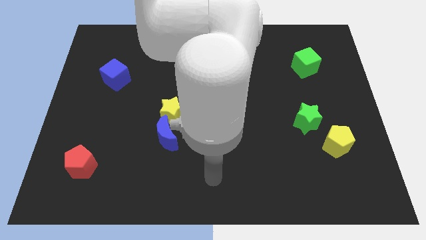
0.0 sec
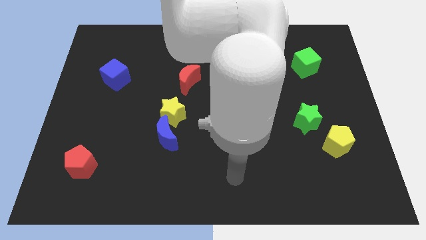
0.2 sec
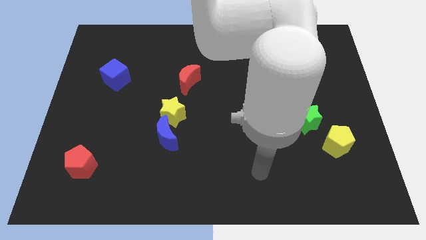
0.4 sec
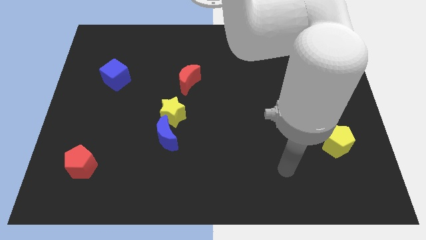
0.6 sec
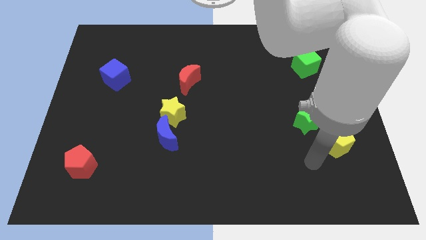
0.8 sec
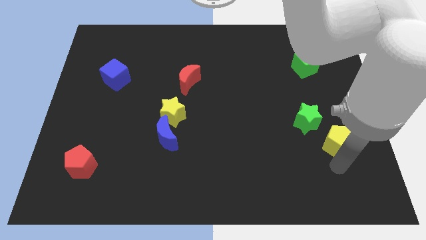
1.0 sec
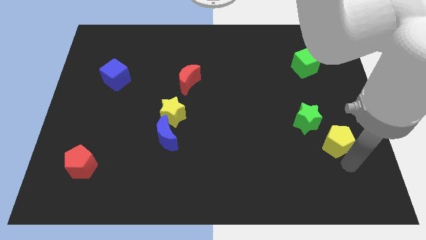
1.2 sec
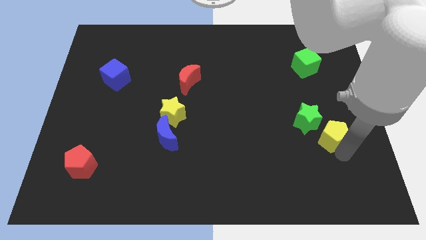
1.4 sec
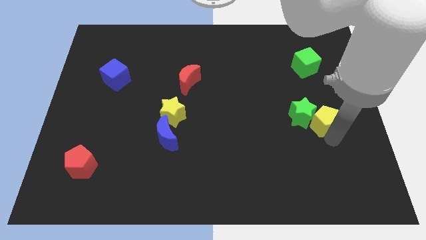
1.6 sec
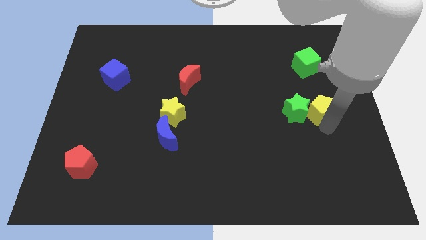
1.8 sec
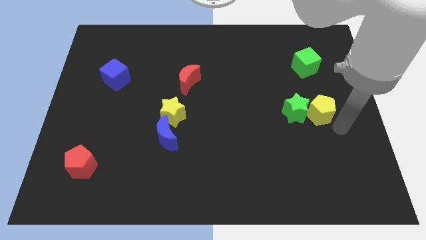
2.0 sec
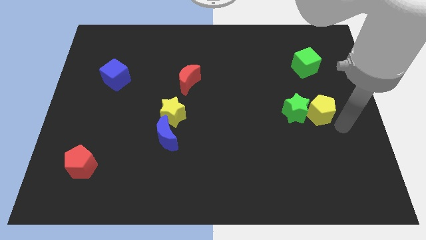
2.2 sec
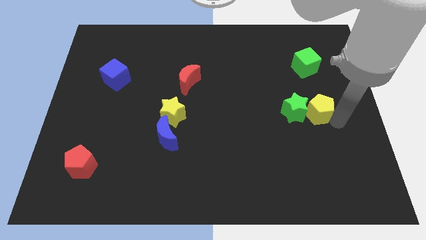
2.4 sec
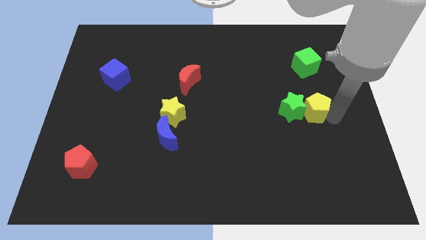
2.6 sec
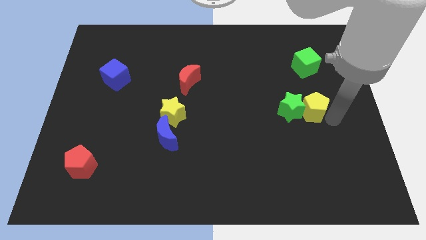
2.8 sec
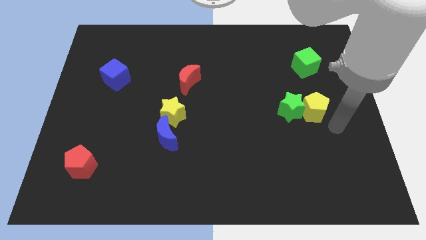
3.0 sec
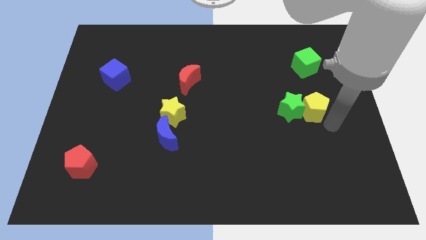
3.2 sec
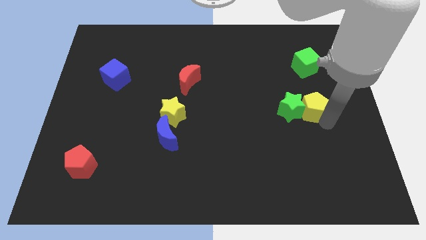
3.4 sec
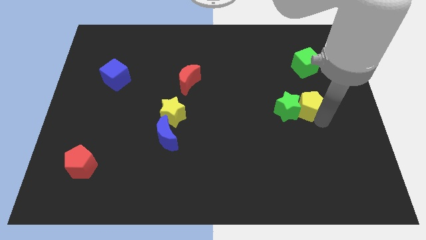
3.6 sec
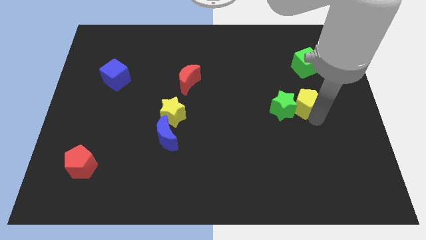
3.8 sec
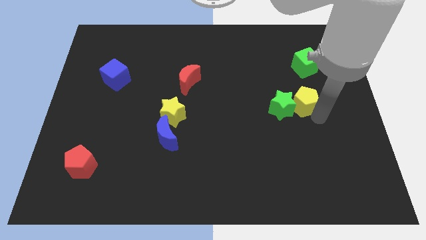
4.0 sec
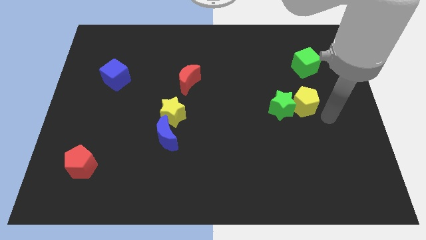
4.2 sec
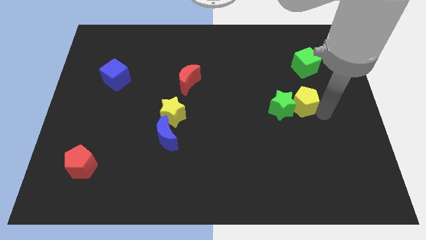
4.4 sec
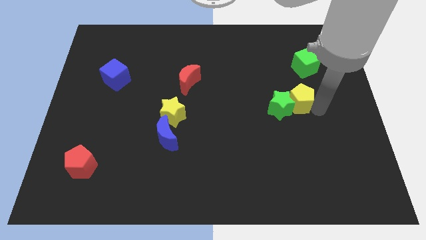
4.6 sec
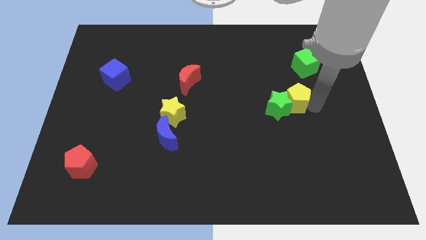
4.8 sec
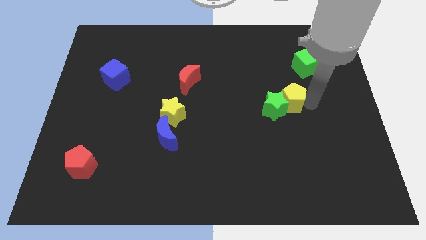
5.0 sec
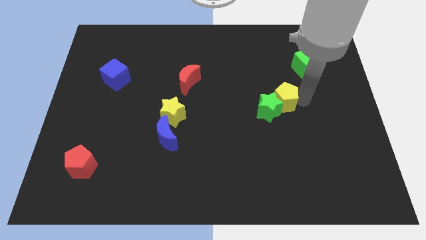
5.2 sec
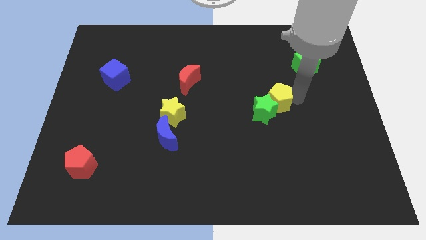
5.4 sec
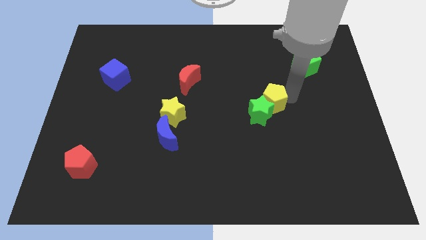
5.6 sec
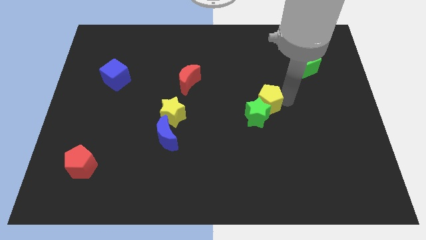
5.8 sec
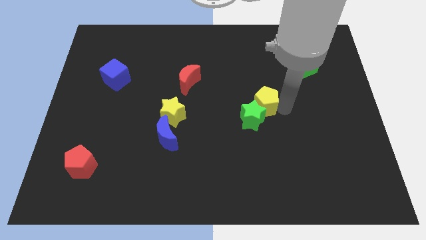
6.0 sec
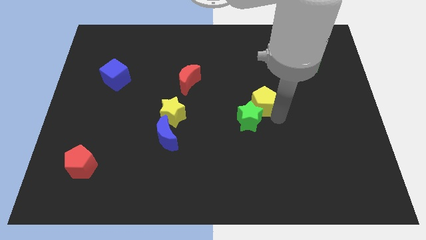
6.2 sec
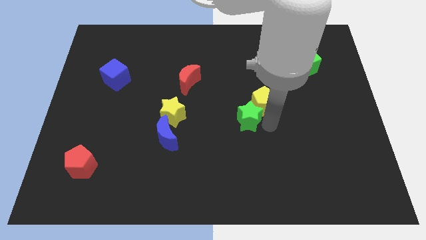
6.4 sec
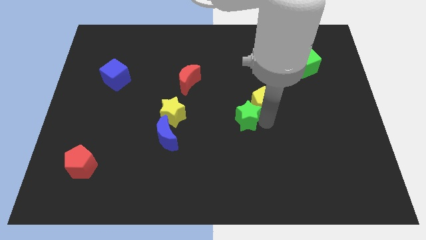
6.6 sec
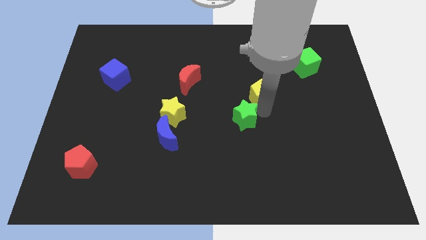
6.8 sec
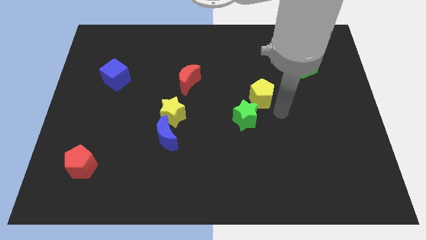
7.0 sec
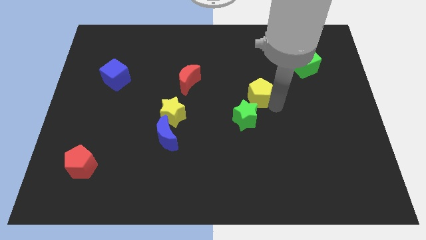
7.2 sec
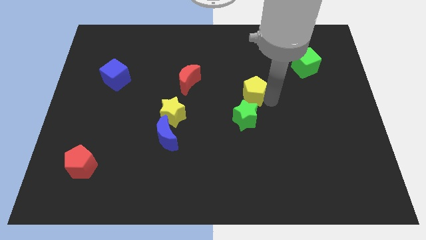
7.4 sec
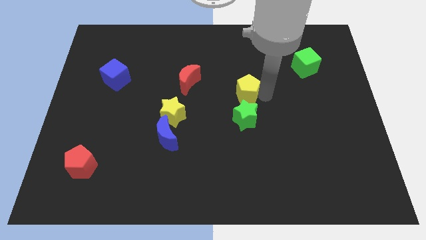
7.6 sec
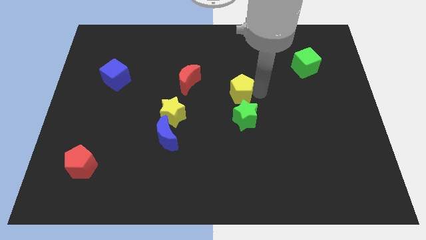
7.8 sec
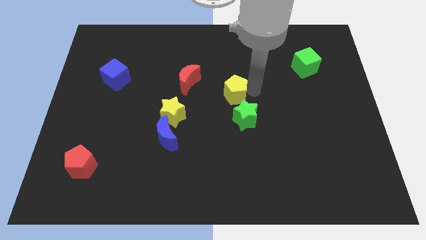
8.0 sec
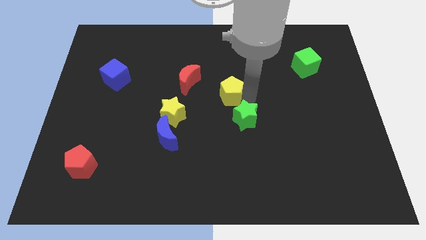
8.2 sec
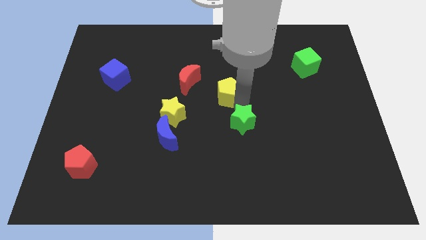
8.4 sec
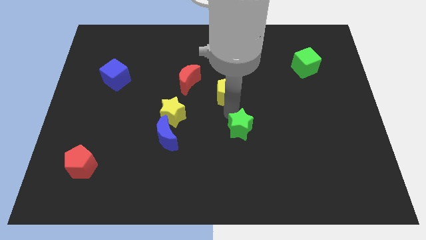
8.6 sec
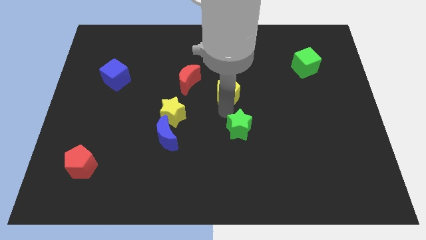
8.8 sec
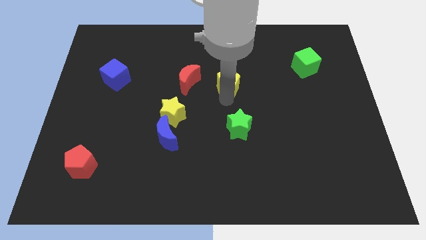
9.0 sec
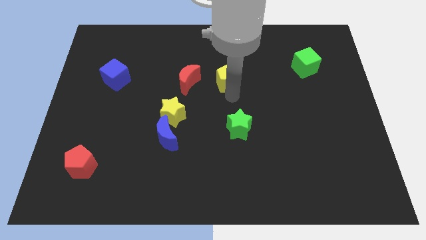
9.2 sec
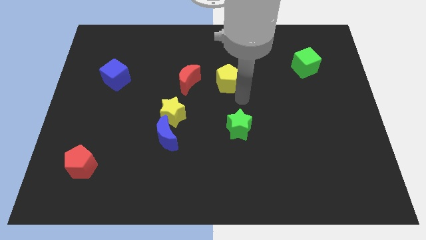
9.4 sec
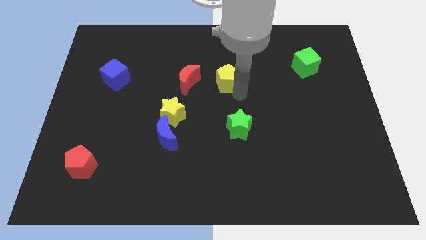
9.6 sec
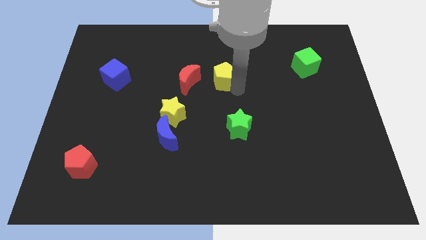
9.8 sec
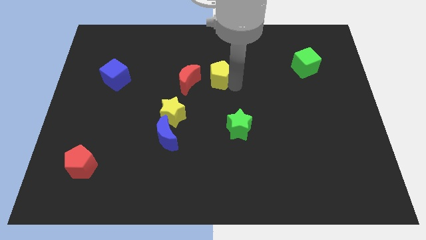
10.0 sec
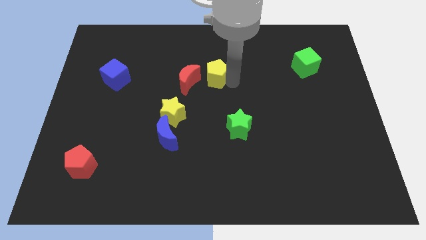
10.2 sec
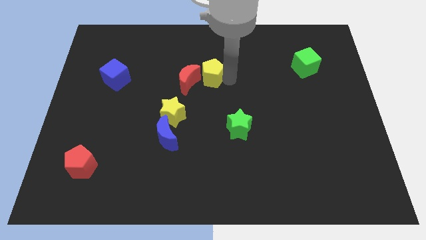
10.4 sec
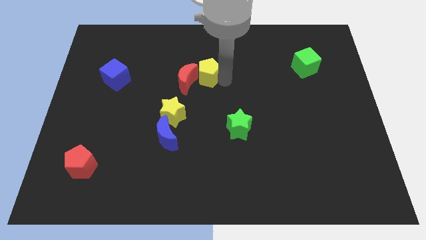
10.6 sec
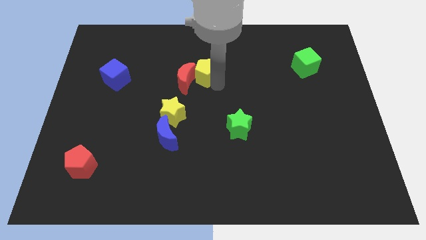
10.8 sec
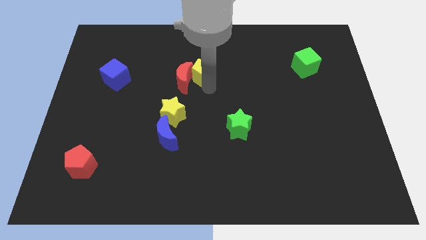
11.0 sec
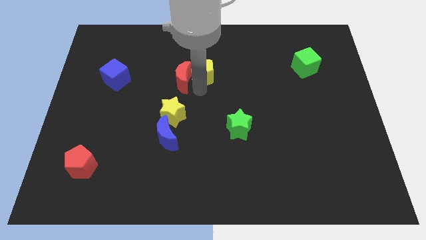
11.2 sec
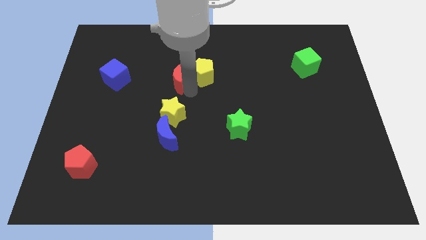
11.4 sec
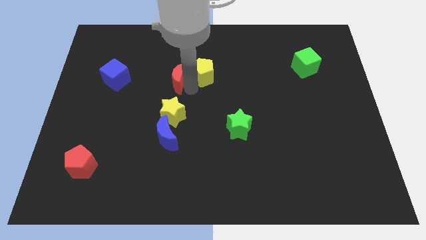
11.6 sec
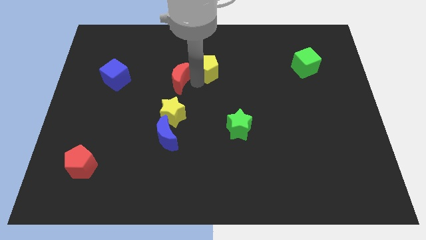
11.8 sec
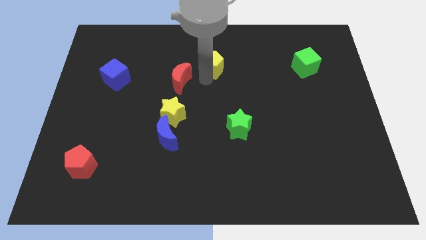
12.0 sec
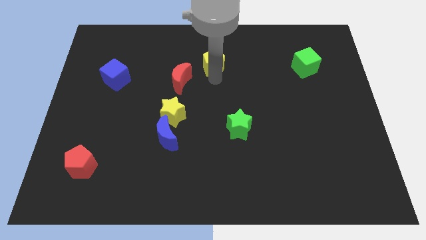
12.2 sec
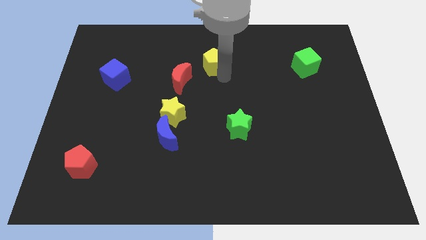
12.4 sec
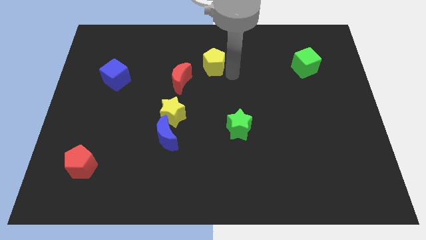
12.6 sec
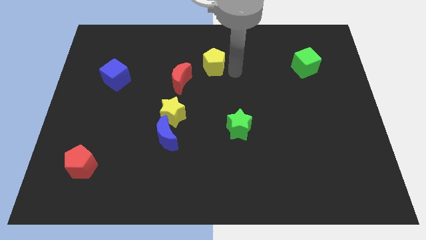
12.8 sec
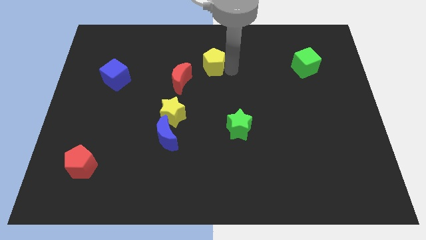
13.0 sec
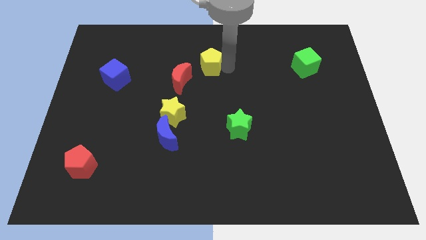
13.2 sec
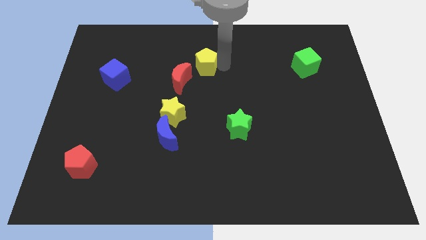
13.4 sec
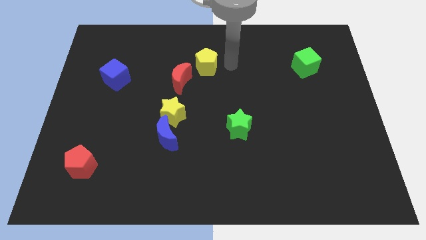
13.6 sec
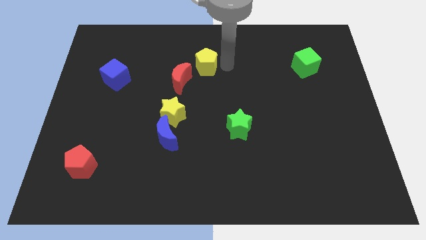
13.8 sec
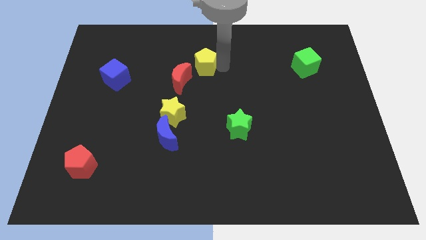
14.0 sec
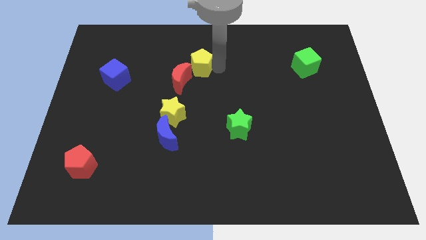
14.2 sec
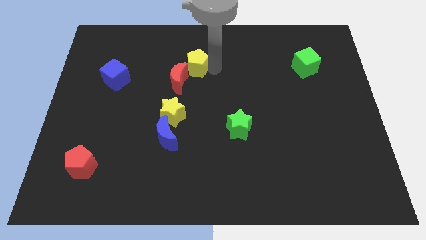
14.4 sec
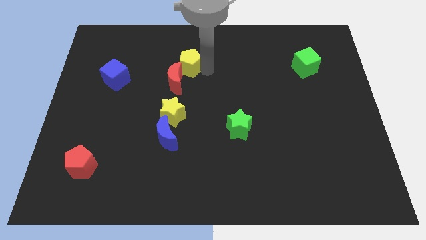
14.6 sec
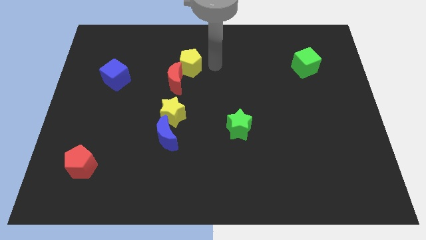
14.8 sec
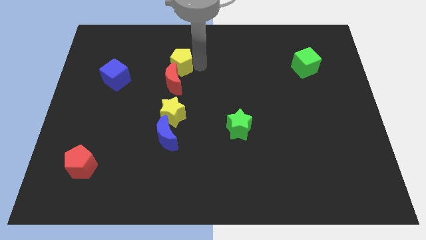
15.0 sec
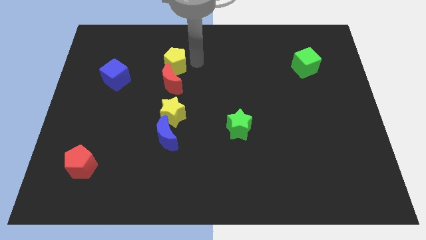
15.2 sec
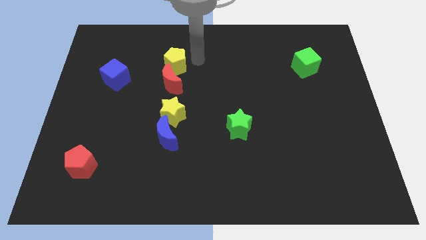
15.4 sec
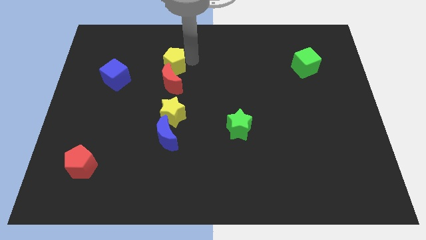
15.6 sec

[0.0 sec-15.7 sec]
push the yellow pentagon to the top left side of the red moon
